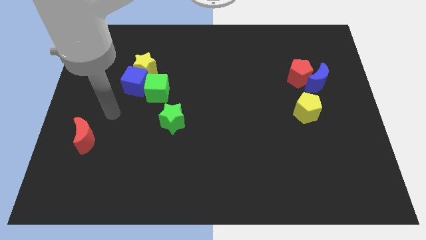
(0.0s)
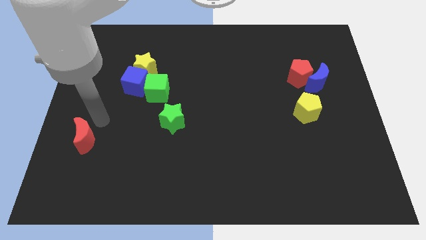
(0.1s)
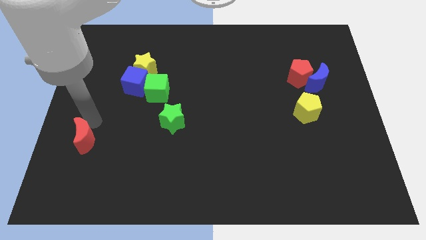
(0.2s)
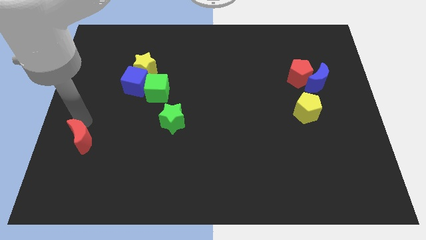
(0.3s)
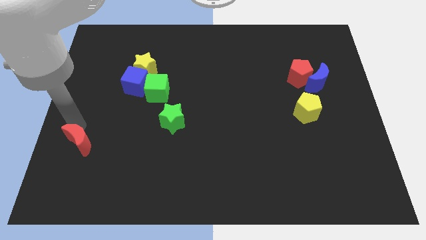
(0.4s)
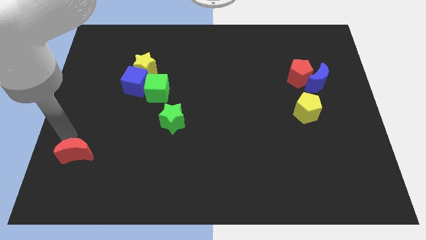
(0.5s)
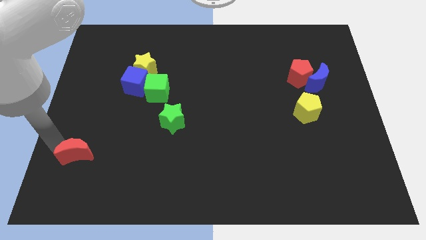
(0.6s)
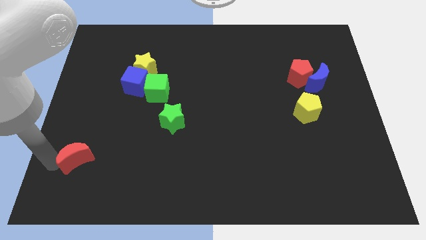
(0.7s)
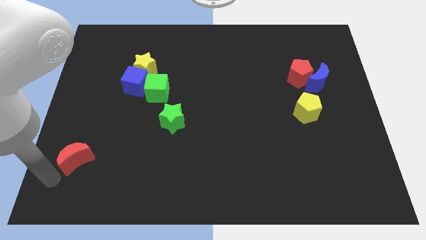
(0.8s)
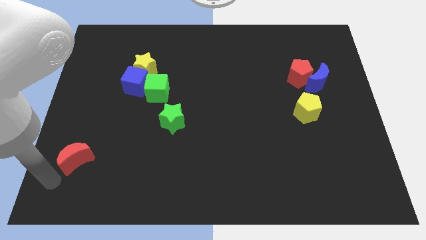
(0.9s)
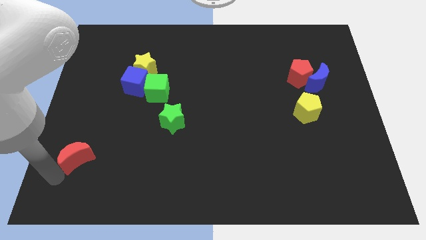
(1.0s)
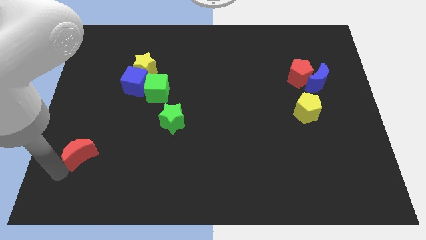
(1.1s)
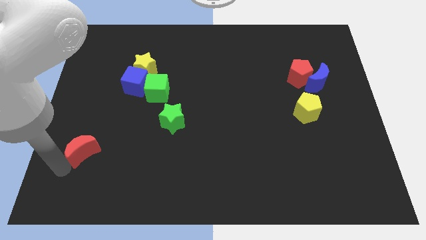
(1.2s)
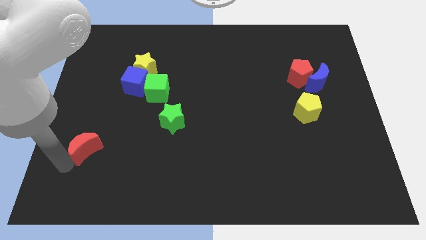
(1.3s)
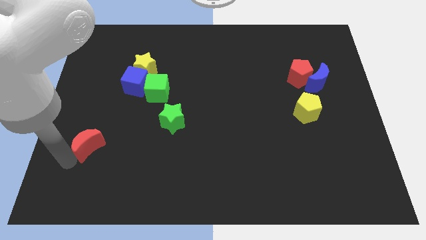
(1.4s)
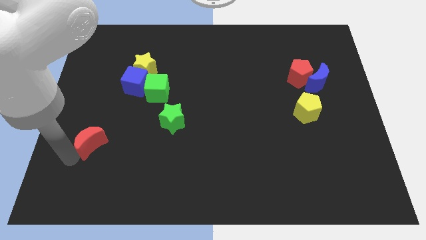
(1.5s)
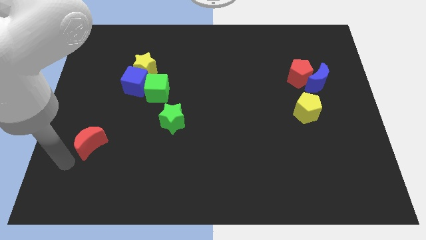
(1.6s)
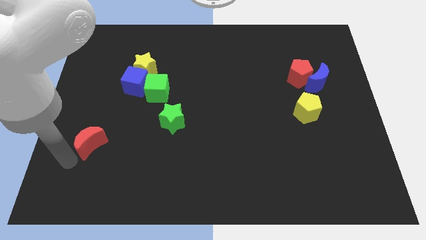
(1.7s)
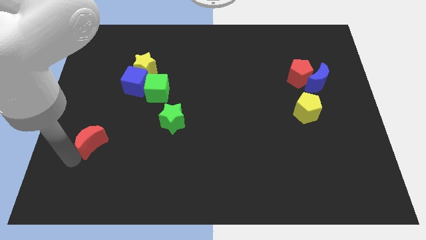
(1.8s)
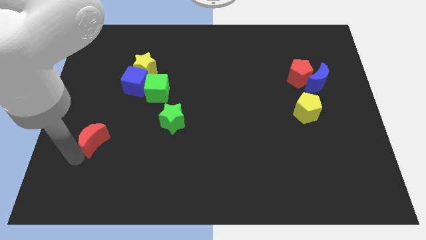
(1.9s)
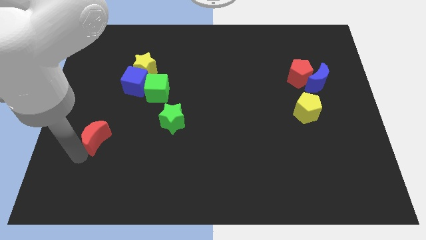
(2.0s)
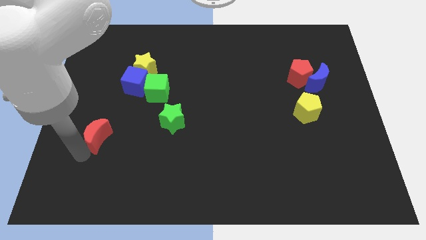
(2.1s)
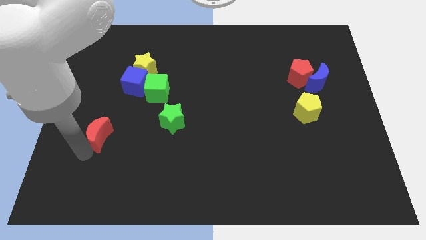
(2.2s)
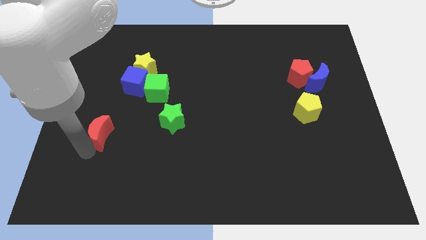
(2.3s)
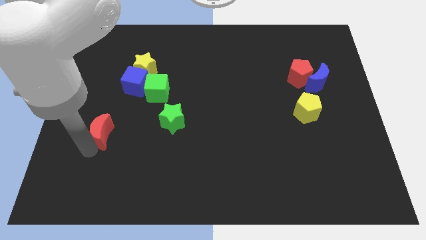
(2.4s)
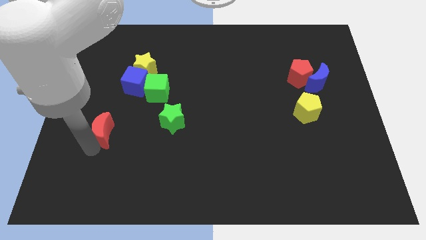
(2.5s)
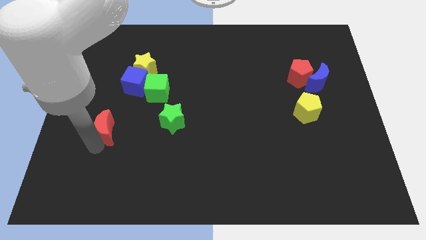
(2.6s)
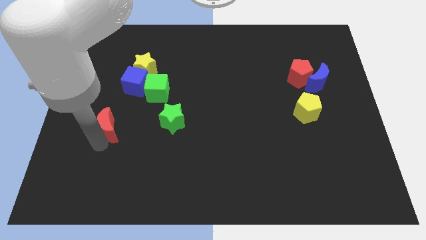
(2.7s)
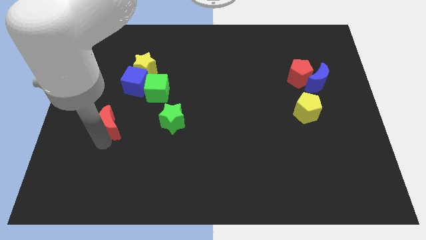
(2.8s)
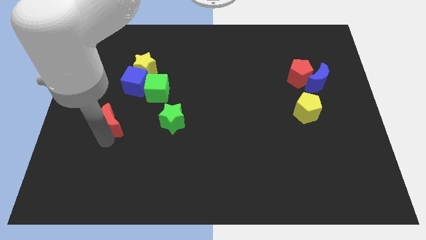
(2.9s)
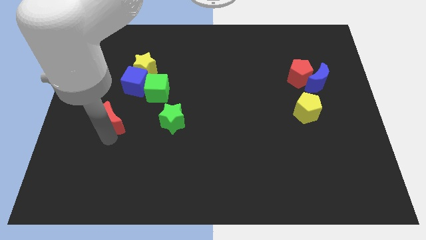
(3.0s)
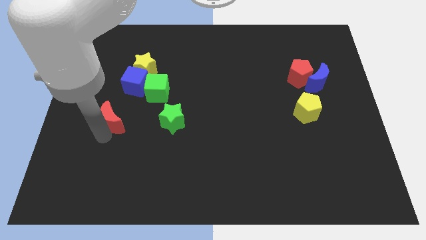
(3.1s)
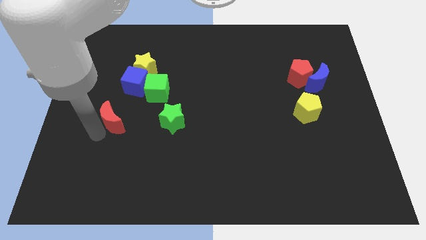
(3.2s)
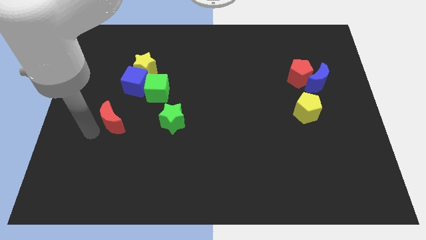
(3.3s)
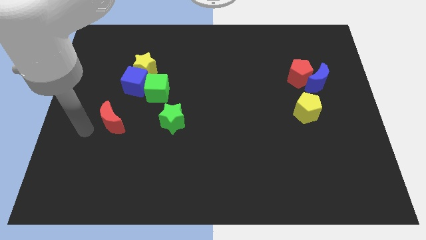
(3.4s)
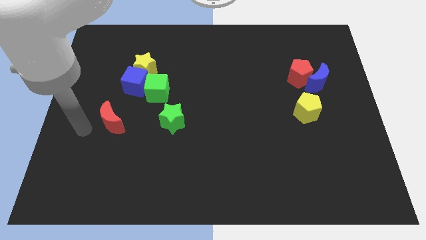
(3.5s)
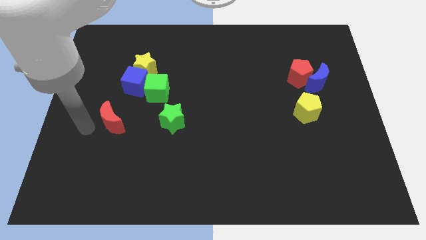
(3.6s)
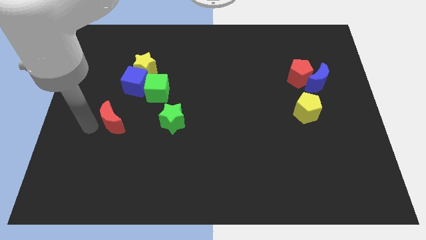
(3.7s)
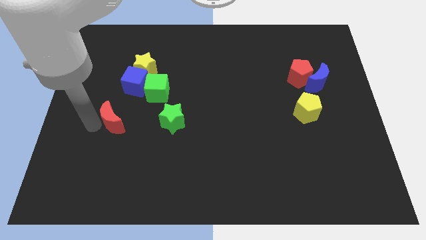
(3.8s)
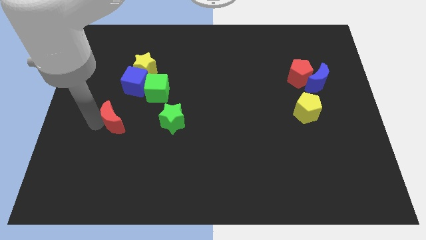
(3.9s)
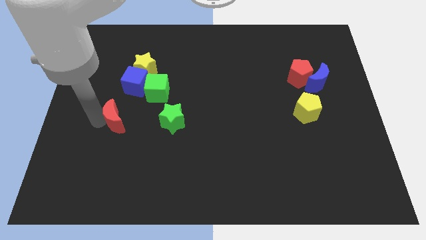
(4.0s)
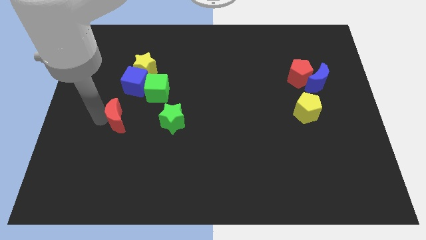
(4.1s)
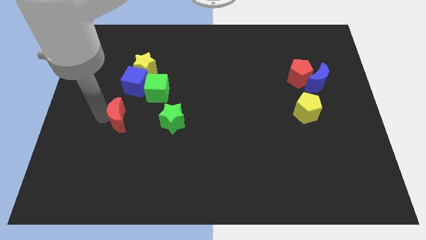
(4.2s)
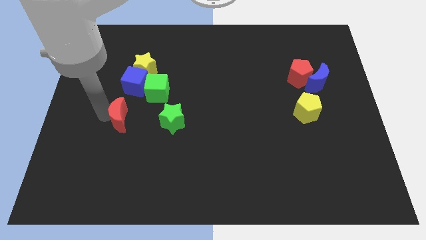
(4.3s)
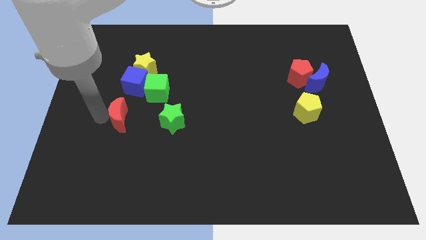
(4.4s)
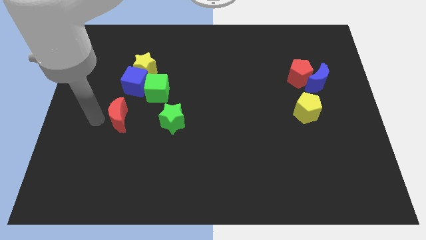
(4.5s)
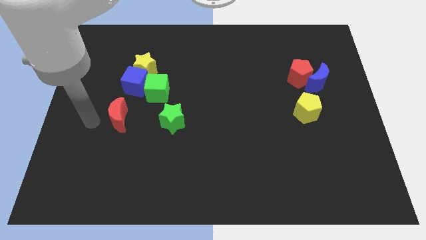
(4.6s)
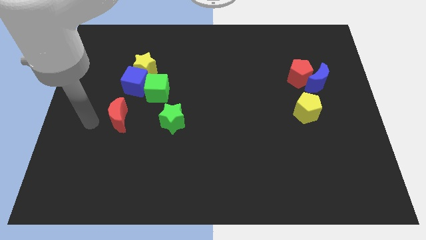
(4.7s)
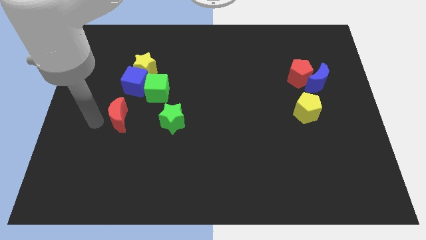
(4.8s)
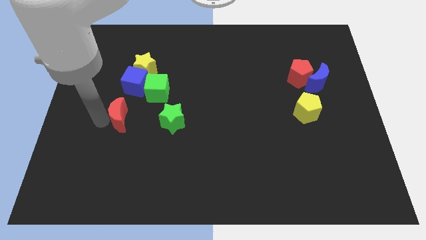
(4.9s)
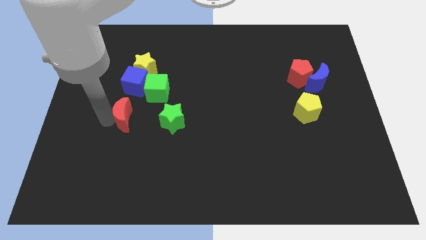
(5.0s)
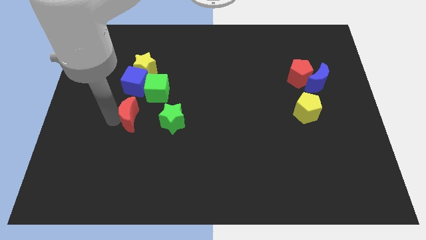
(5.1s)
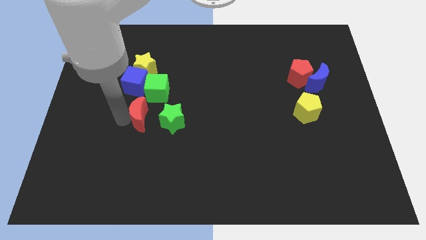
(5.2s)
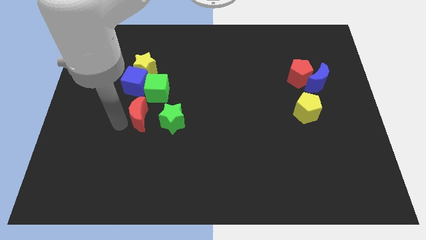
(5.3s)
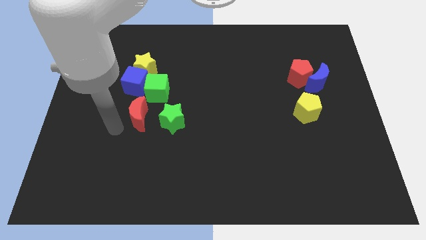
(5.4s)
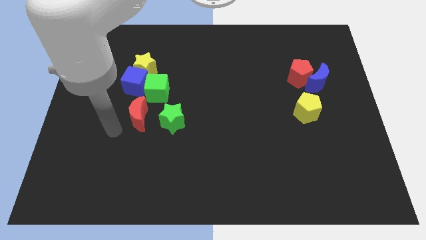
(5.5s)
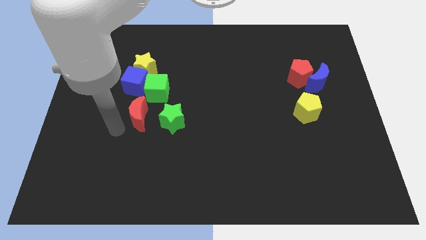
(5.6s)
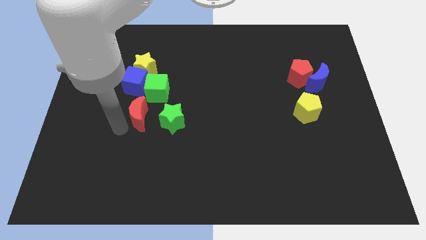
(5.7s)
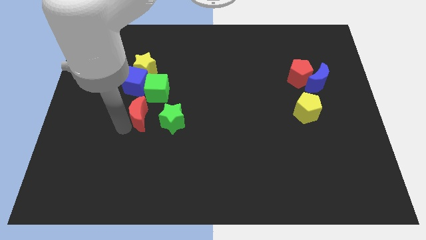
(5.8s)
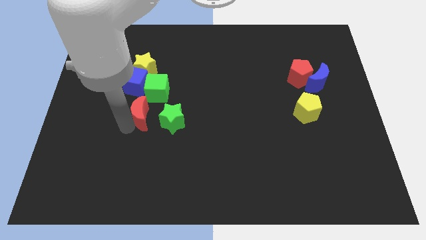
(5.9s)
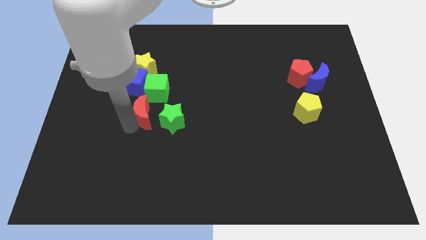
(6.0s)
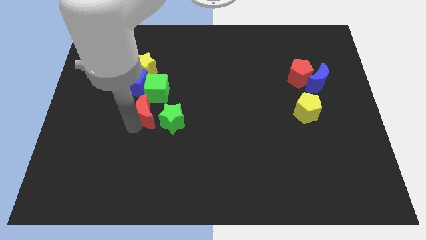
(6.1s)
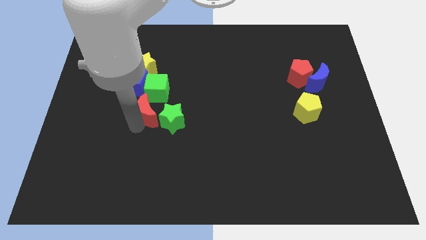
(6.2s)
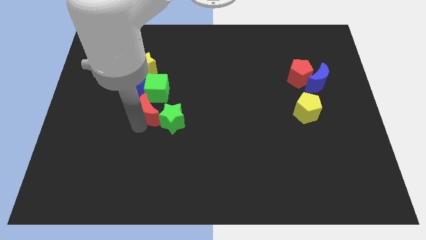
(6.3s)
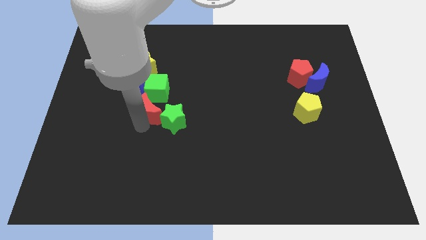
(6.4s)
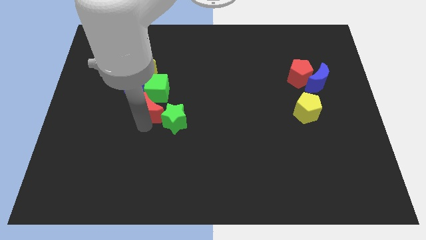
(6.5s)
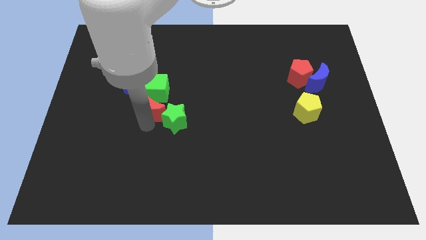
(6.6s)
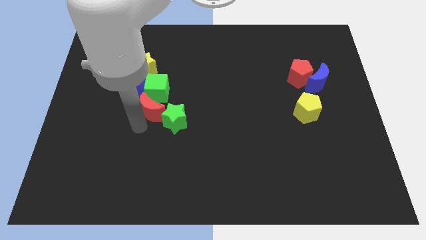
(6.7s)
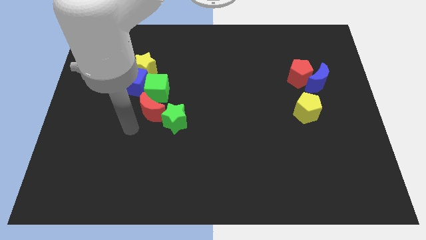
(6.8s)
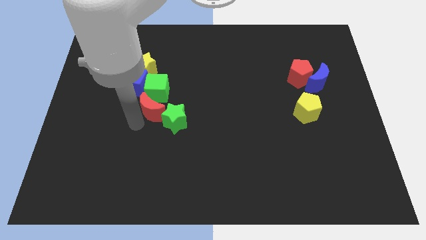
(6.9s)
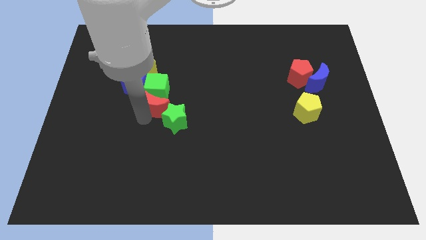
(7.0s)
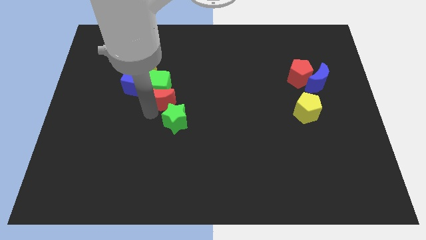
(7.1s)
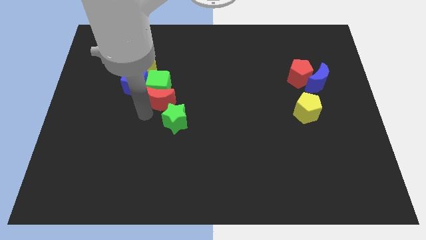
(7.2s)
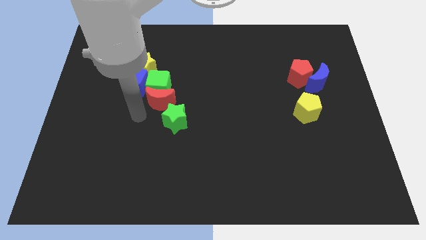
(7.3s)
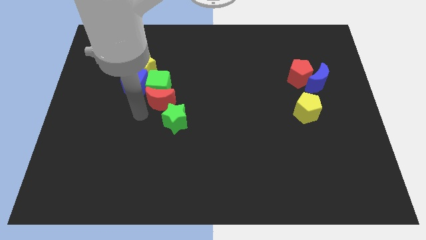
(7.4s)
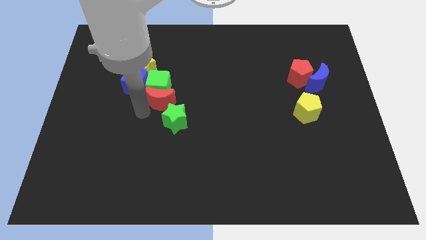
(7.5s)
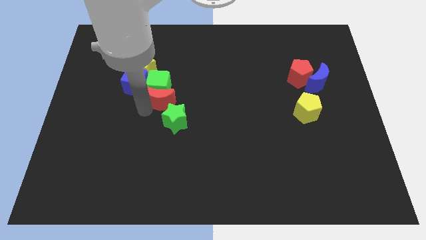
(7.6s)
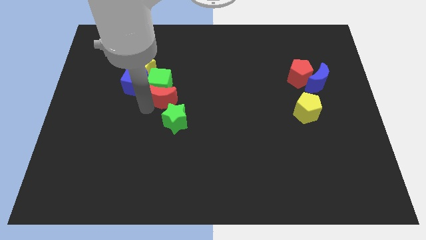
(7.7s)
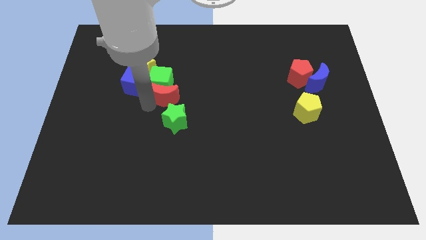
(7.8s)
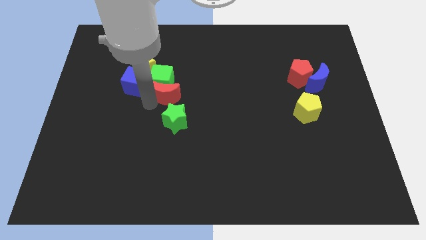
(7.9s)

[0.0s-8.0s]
slide the red moon up and to the right diagonally
